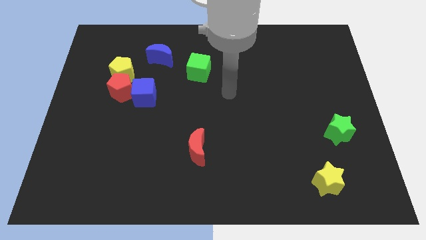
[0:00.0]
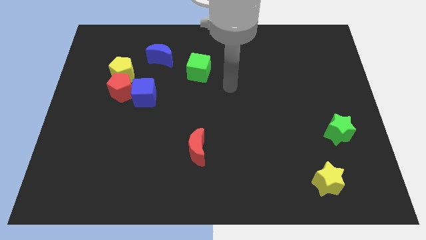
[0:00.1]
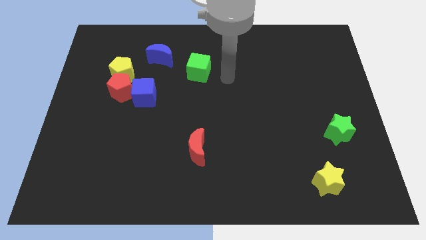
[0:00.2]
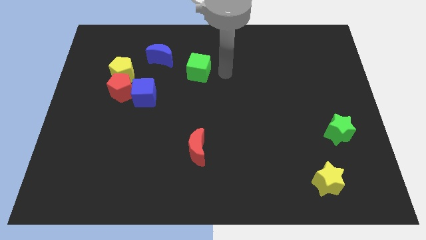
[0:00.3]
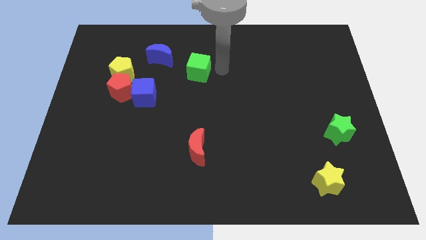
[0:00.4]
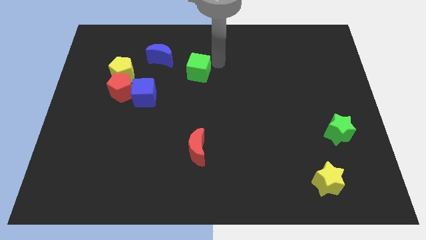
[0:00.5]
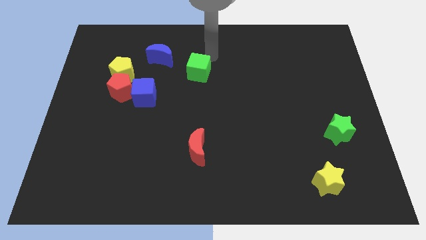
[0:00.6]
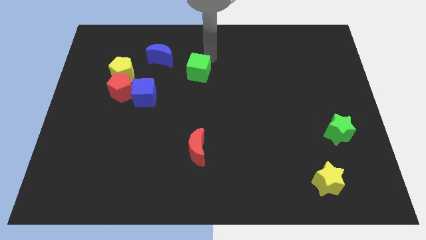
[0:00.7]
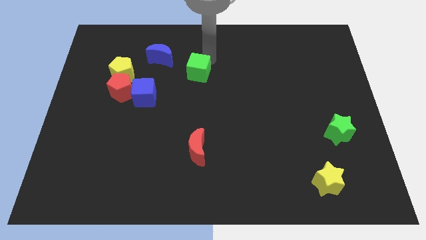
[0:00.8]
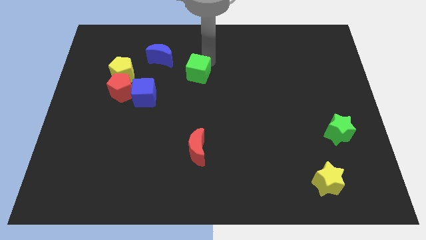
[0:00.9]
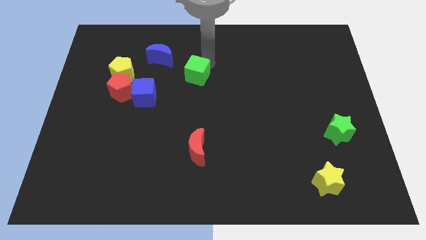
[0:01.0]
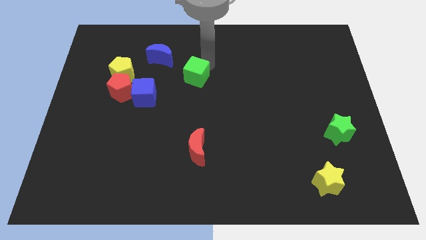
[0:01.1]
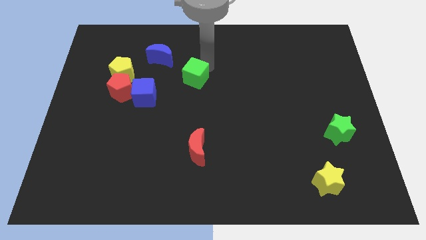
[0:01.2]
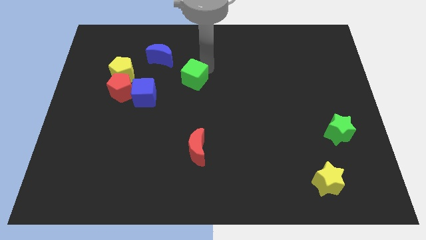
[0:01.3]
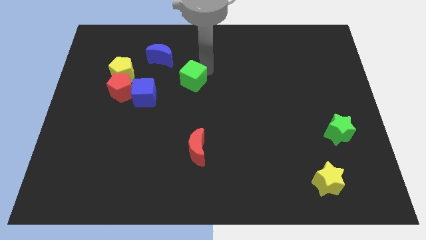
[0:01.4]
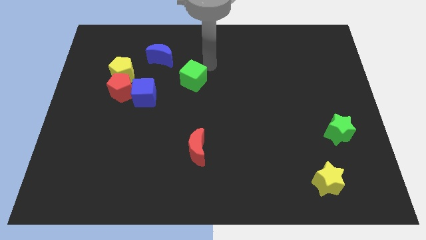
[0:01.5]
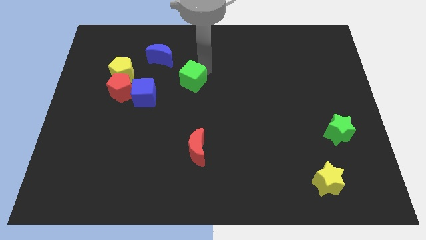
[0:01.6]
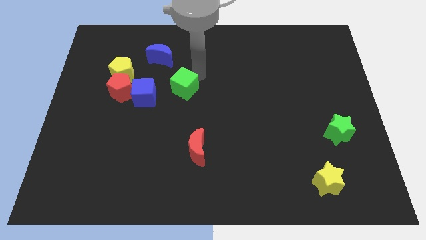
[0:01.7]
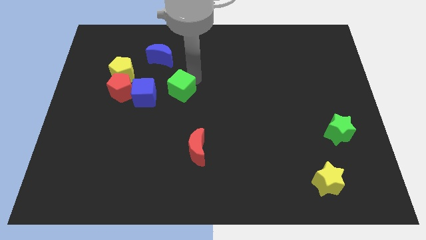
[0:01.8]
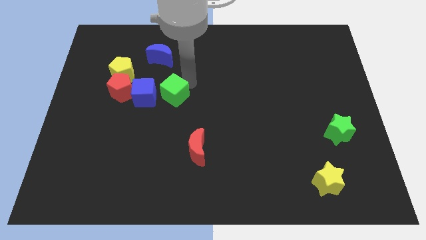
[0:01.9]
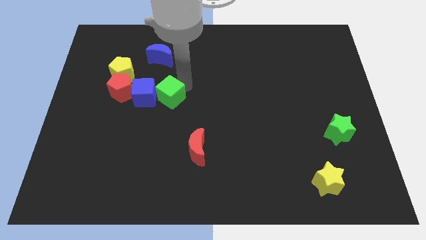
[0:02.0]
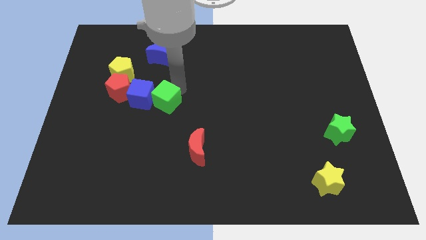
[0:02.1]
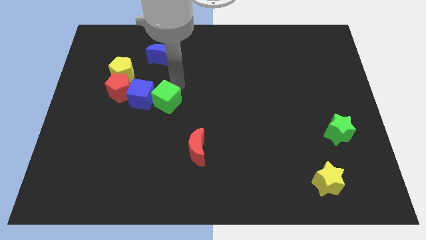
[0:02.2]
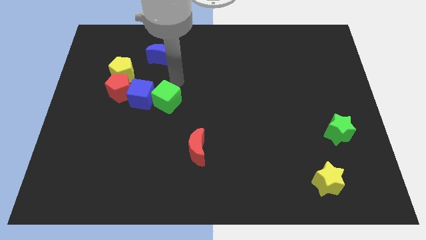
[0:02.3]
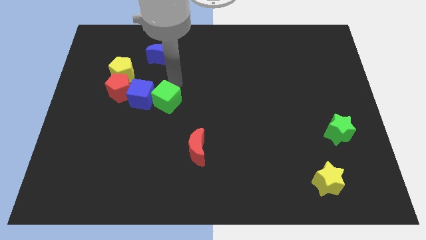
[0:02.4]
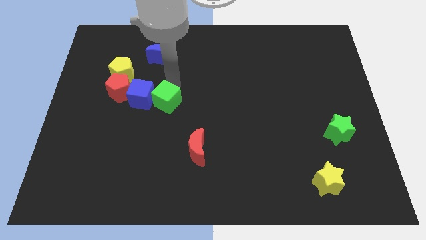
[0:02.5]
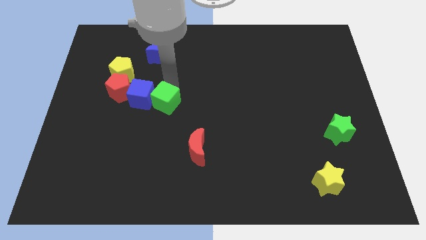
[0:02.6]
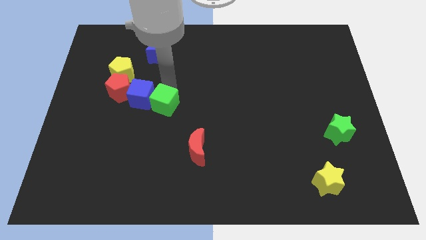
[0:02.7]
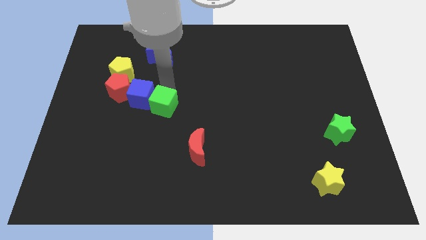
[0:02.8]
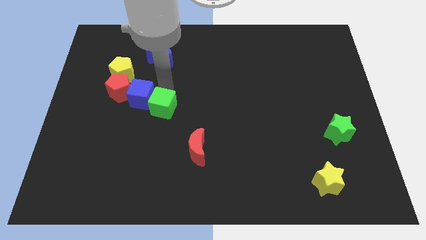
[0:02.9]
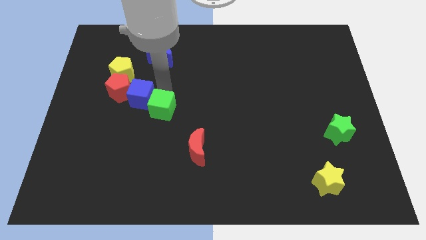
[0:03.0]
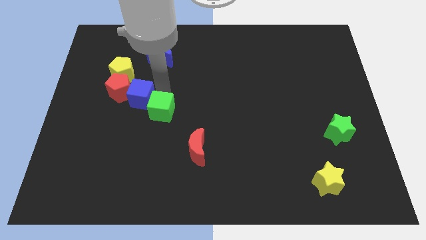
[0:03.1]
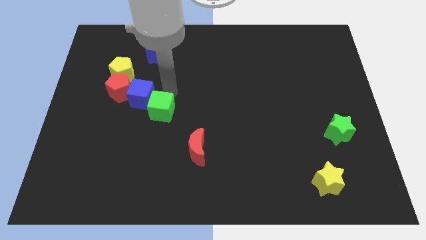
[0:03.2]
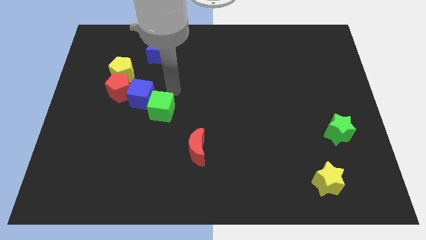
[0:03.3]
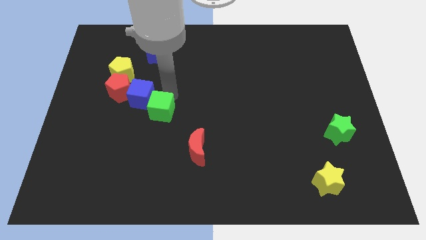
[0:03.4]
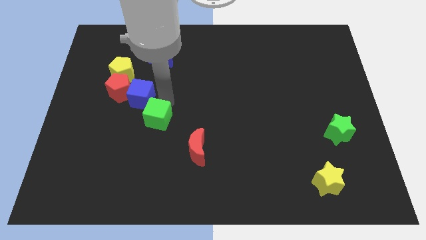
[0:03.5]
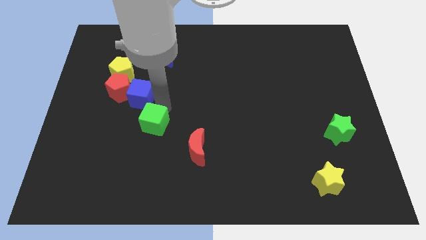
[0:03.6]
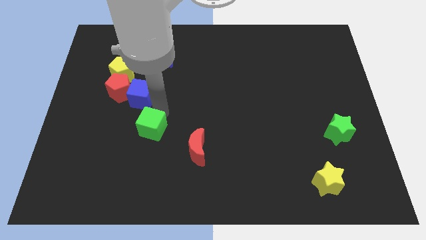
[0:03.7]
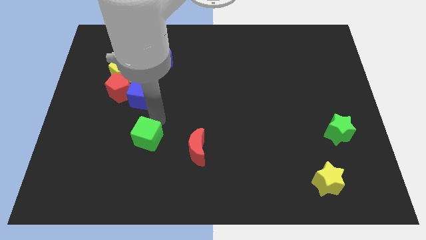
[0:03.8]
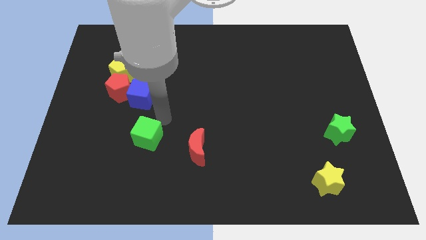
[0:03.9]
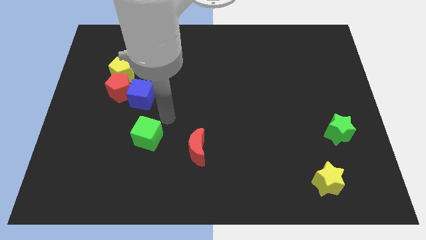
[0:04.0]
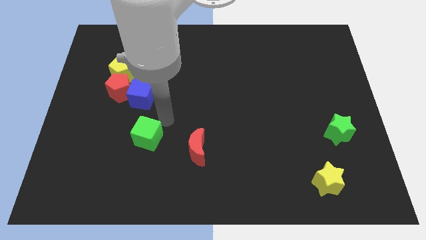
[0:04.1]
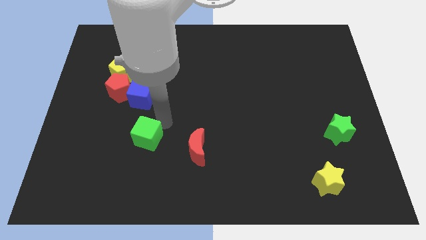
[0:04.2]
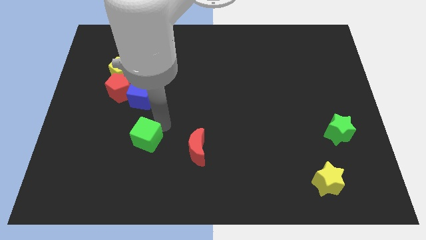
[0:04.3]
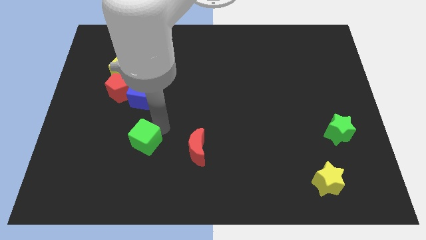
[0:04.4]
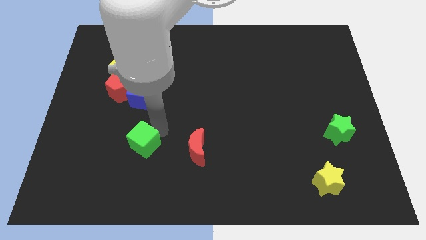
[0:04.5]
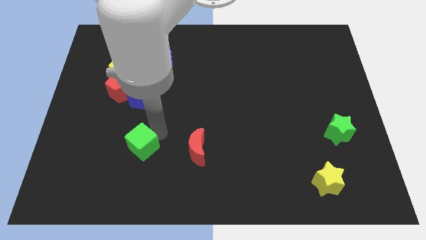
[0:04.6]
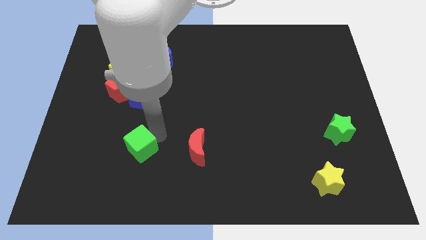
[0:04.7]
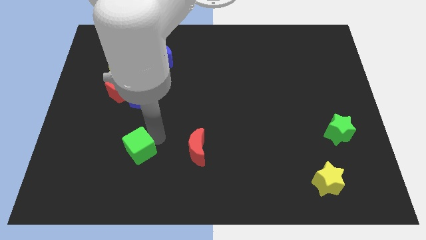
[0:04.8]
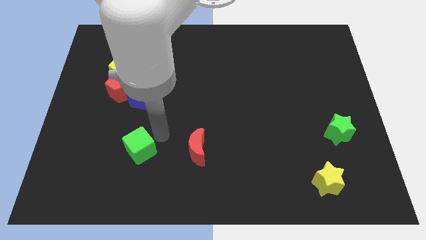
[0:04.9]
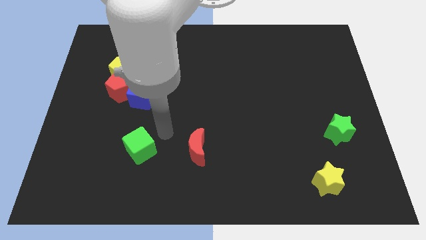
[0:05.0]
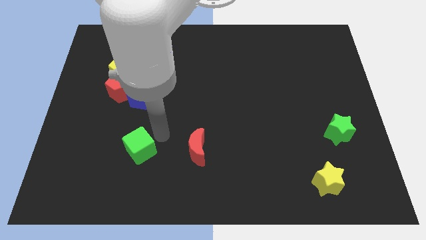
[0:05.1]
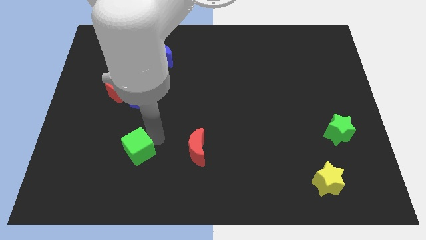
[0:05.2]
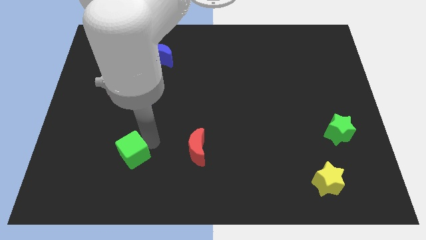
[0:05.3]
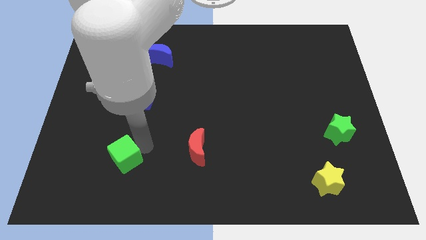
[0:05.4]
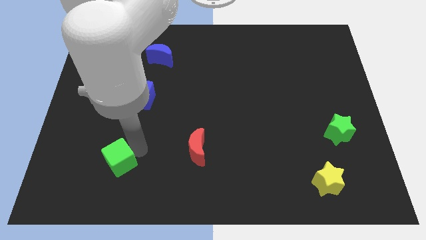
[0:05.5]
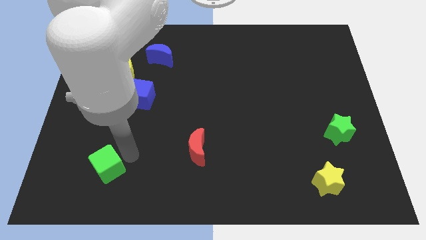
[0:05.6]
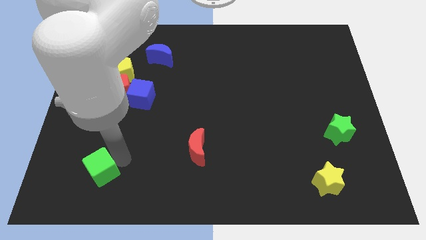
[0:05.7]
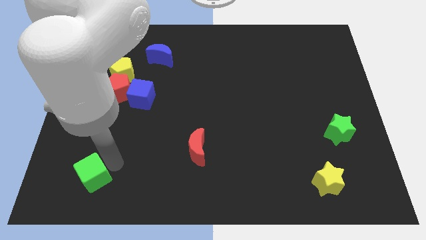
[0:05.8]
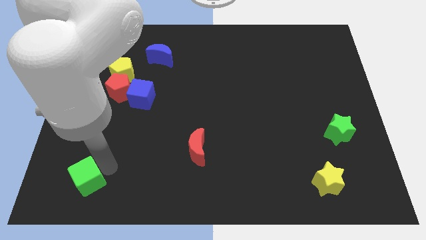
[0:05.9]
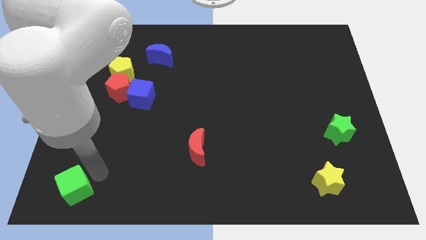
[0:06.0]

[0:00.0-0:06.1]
move the green cube to the bottom left of the board
